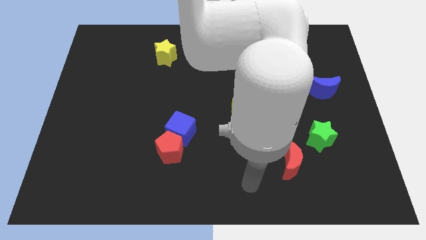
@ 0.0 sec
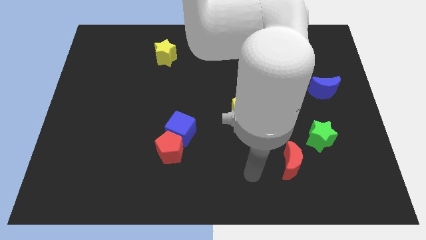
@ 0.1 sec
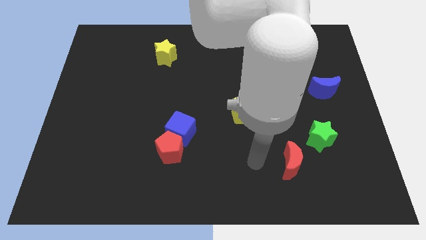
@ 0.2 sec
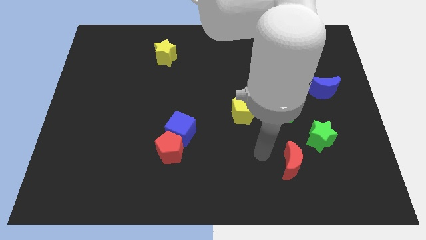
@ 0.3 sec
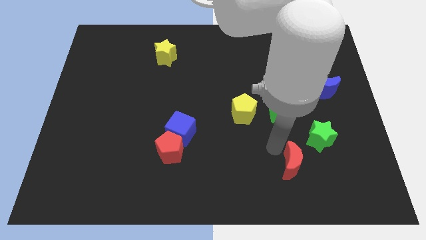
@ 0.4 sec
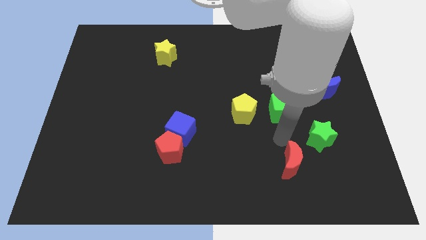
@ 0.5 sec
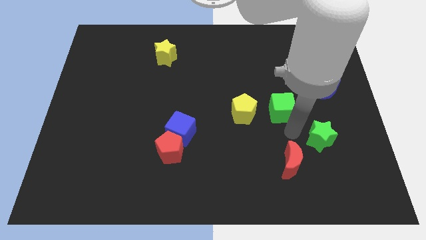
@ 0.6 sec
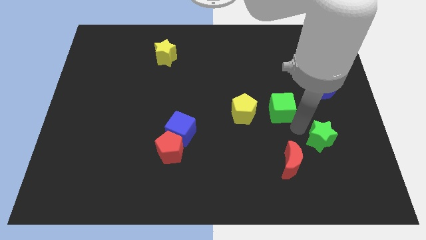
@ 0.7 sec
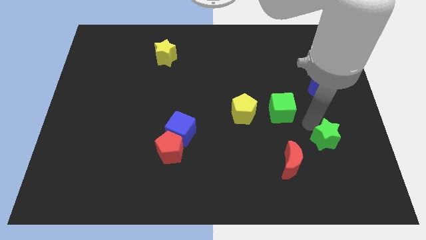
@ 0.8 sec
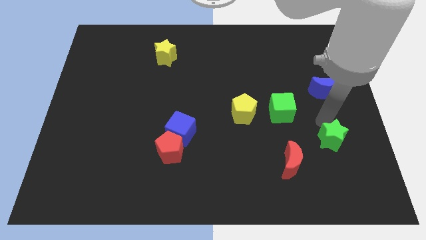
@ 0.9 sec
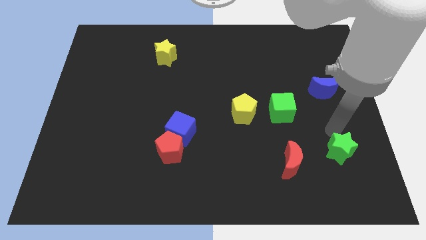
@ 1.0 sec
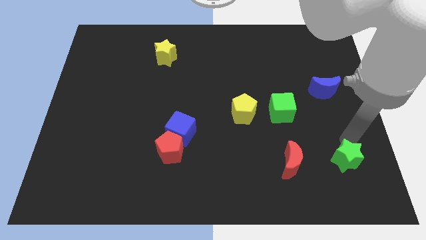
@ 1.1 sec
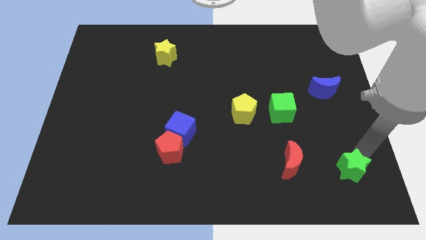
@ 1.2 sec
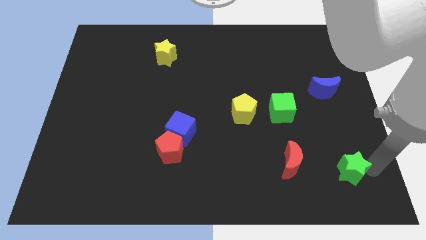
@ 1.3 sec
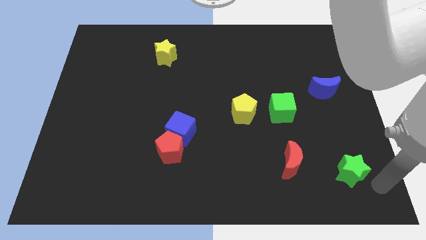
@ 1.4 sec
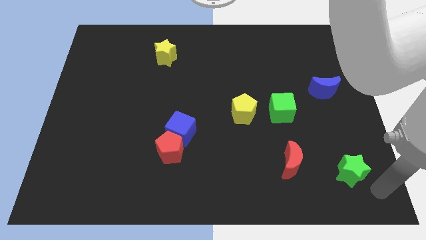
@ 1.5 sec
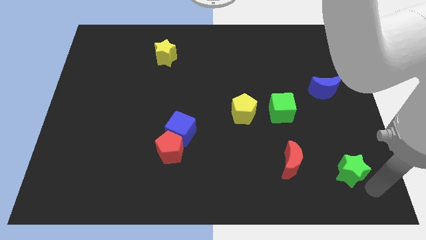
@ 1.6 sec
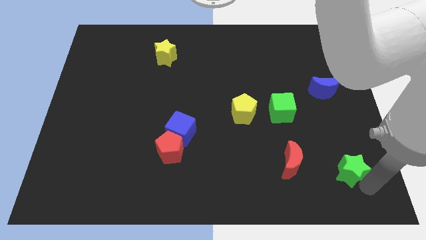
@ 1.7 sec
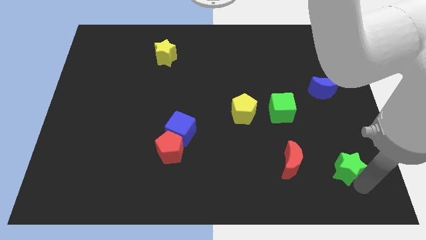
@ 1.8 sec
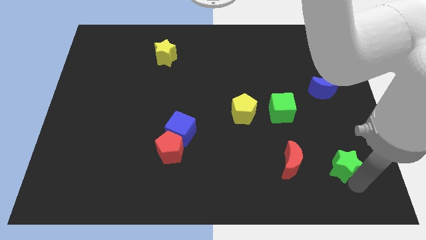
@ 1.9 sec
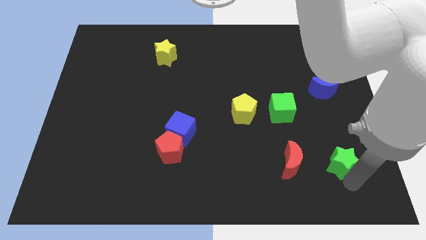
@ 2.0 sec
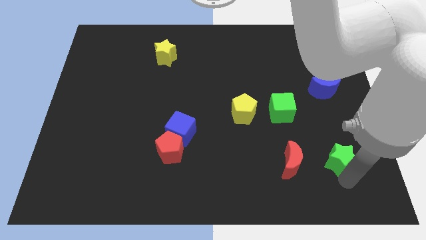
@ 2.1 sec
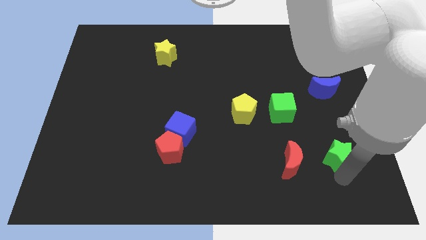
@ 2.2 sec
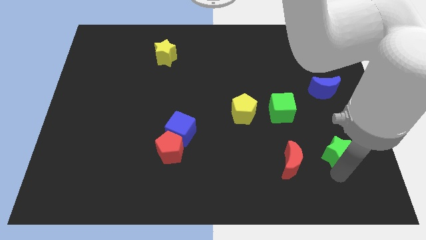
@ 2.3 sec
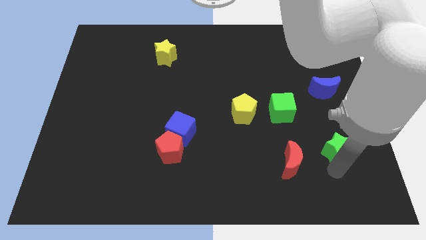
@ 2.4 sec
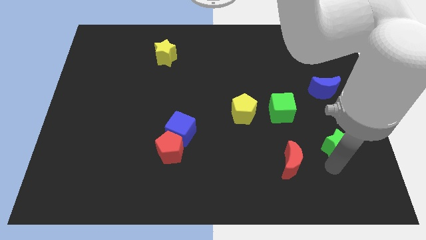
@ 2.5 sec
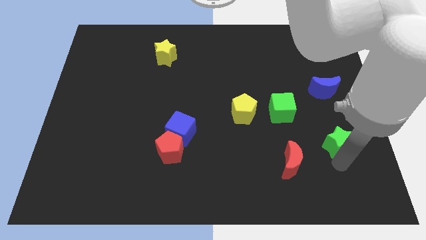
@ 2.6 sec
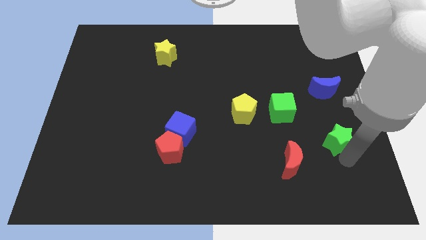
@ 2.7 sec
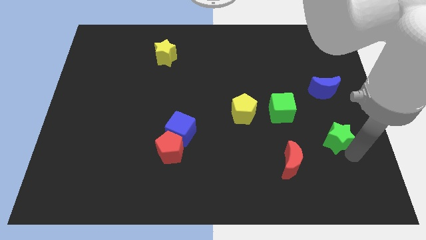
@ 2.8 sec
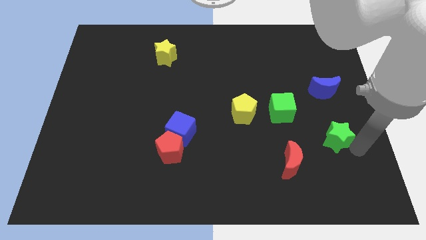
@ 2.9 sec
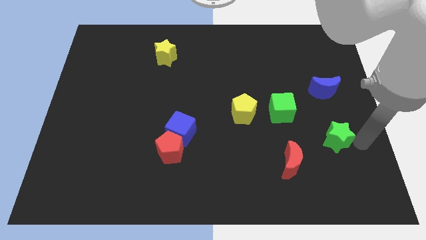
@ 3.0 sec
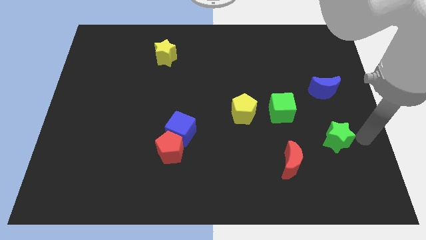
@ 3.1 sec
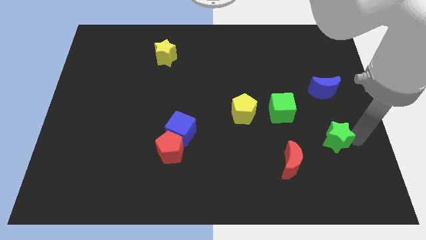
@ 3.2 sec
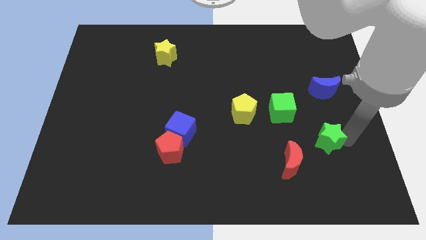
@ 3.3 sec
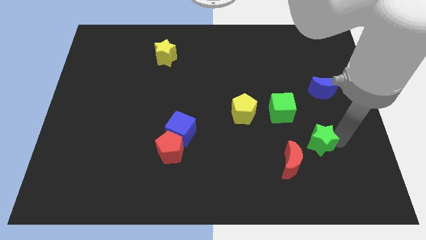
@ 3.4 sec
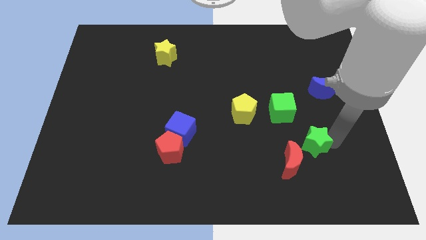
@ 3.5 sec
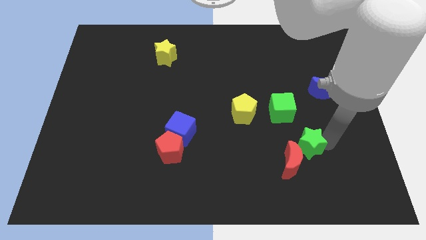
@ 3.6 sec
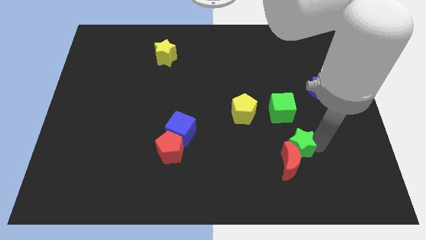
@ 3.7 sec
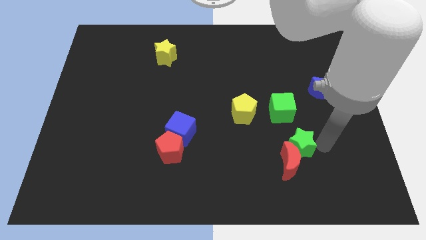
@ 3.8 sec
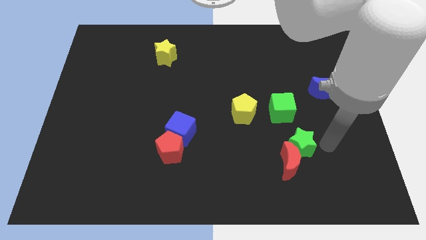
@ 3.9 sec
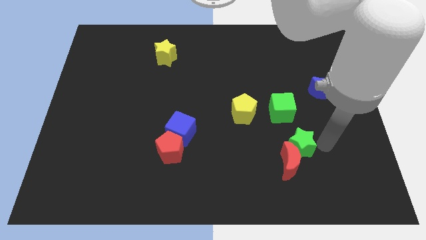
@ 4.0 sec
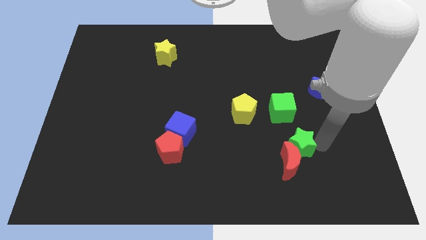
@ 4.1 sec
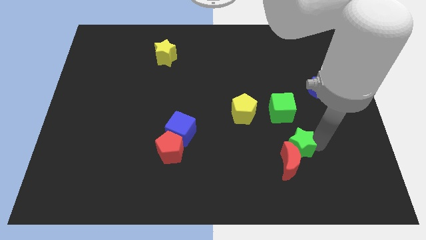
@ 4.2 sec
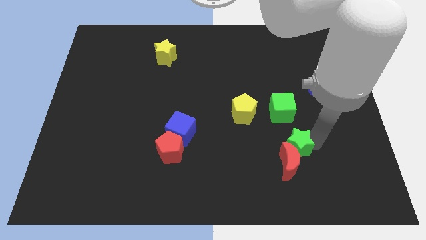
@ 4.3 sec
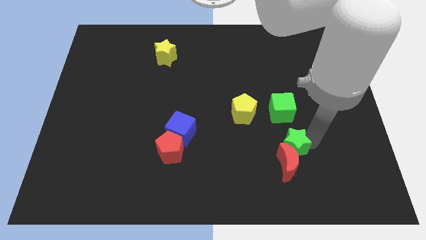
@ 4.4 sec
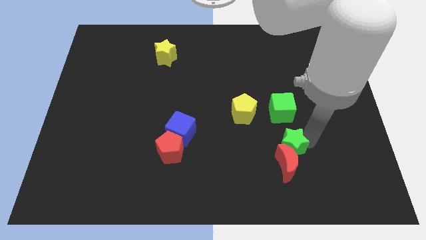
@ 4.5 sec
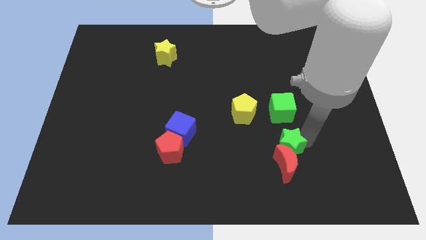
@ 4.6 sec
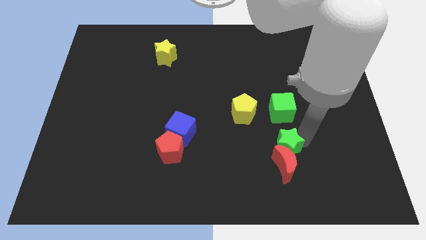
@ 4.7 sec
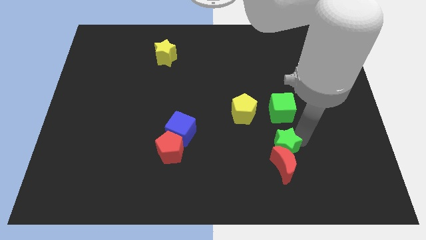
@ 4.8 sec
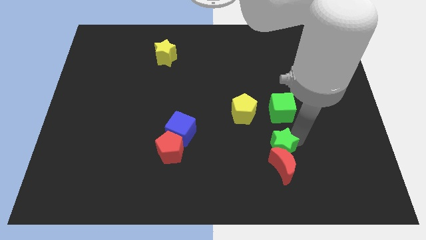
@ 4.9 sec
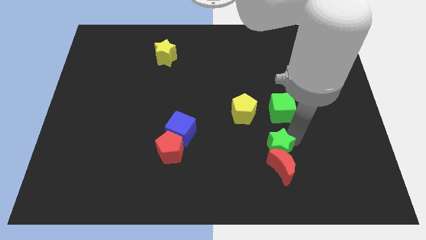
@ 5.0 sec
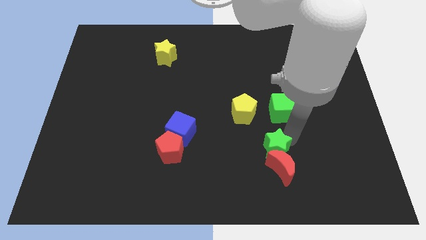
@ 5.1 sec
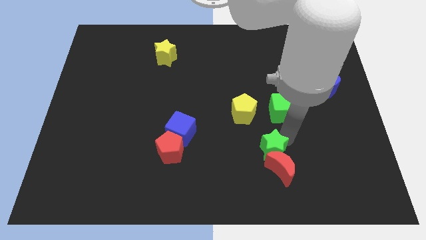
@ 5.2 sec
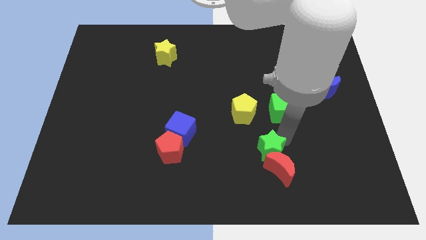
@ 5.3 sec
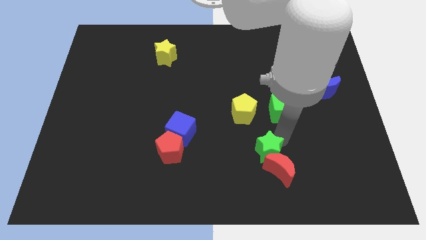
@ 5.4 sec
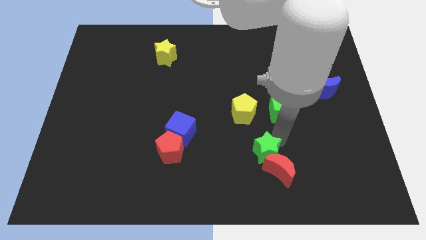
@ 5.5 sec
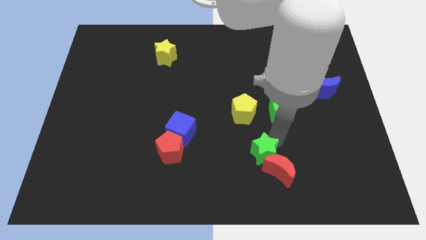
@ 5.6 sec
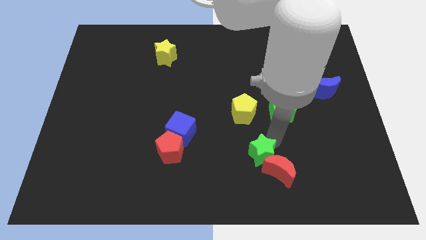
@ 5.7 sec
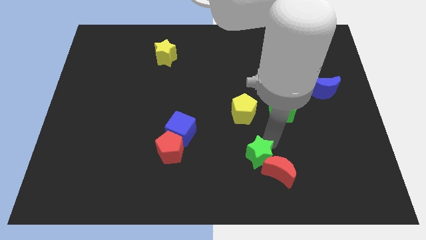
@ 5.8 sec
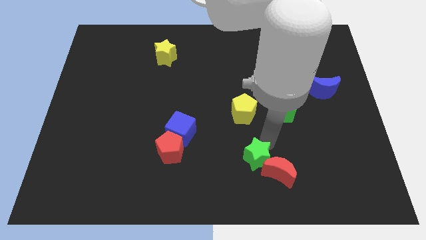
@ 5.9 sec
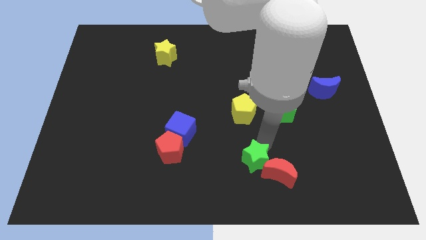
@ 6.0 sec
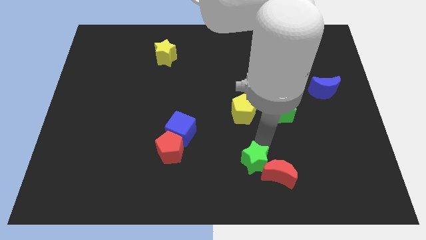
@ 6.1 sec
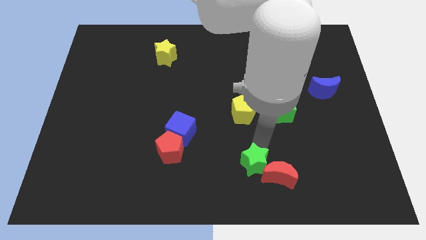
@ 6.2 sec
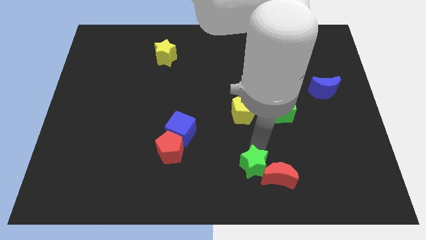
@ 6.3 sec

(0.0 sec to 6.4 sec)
slide the green star to the bottom

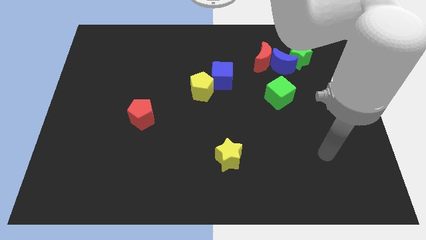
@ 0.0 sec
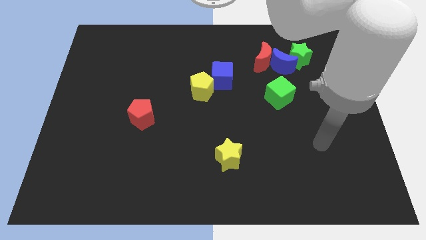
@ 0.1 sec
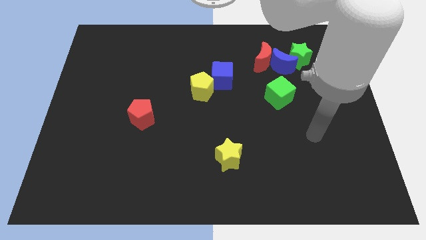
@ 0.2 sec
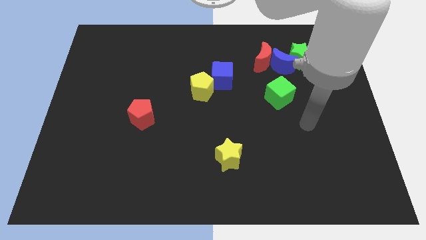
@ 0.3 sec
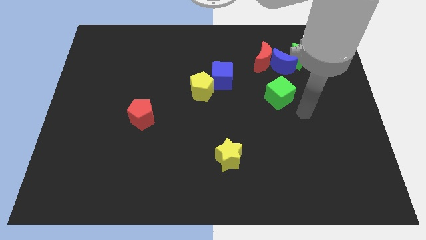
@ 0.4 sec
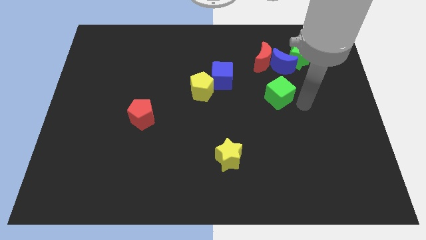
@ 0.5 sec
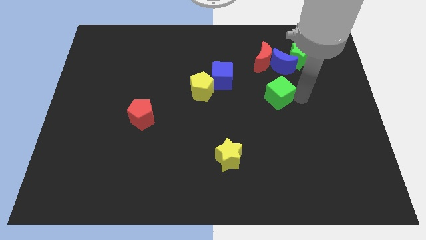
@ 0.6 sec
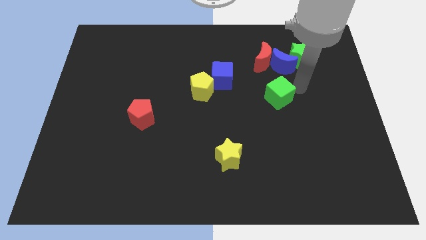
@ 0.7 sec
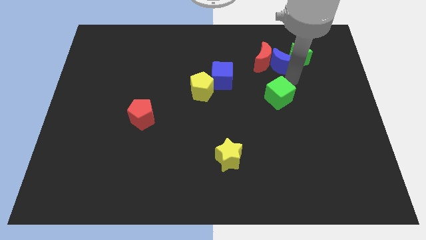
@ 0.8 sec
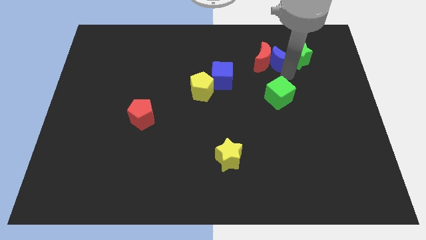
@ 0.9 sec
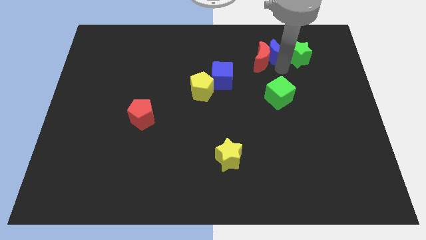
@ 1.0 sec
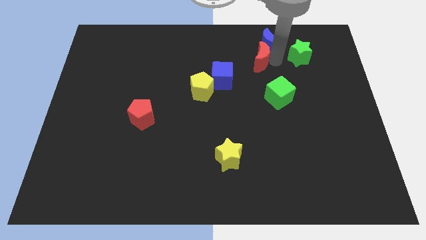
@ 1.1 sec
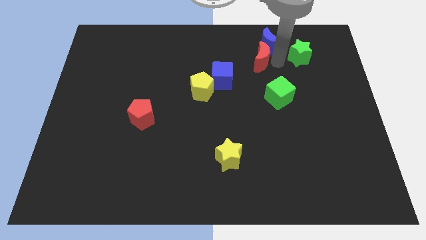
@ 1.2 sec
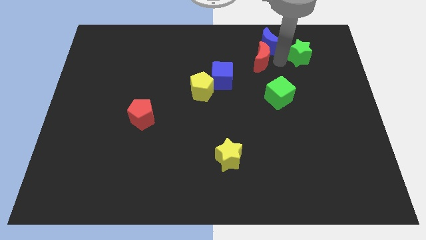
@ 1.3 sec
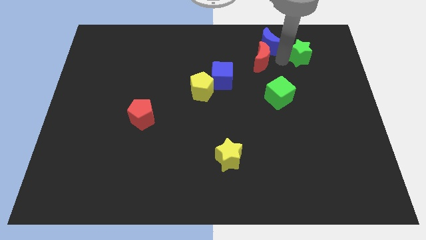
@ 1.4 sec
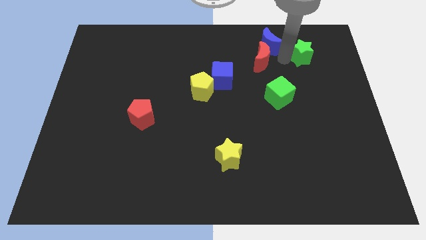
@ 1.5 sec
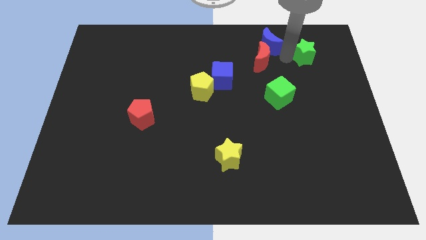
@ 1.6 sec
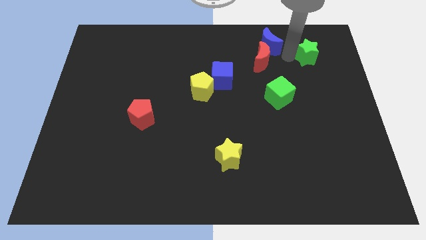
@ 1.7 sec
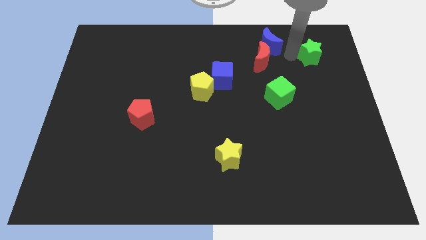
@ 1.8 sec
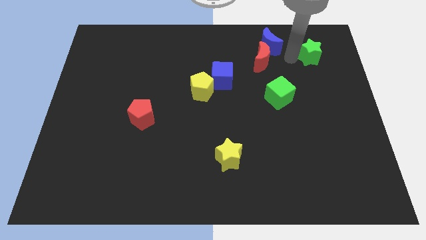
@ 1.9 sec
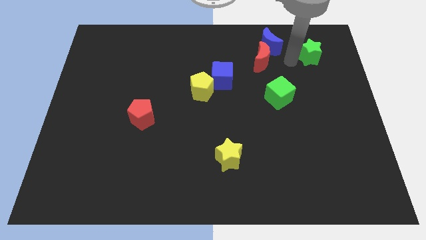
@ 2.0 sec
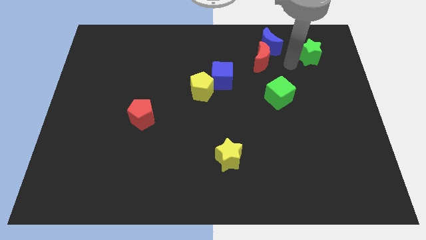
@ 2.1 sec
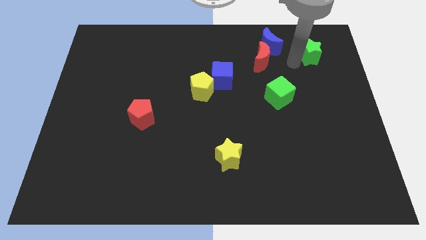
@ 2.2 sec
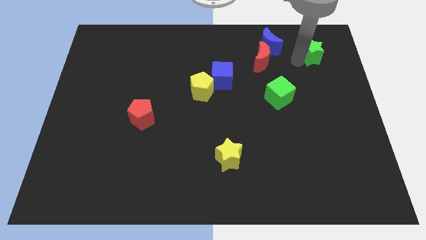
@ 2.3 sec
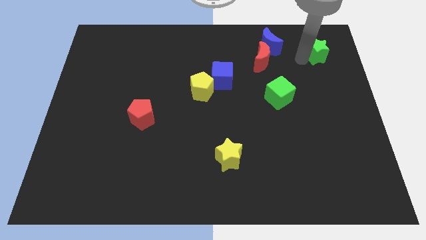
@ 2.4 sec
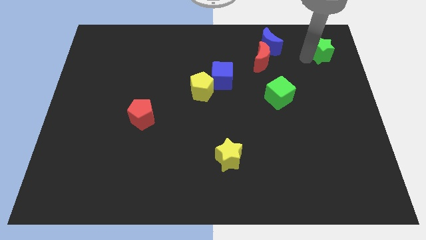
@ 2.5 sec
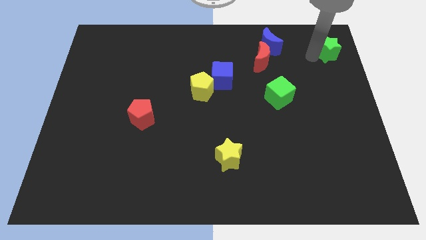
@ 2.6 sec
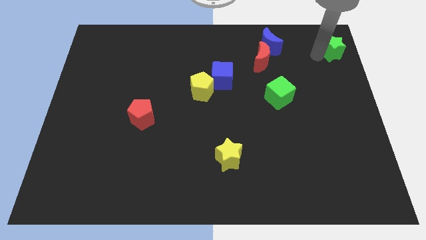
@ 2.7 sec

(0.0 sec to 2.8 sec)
slide the green star to the top right corner
